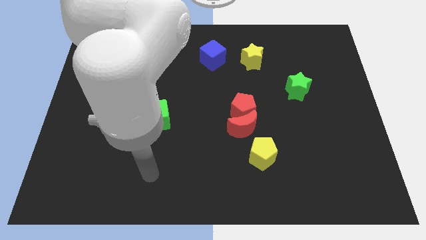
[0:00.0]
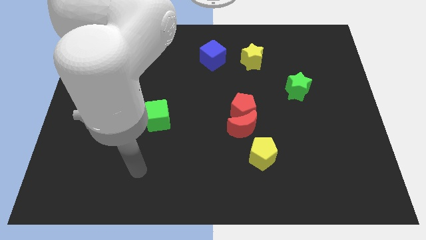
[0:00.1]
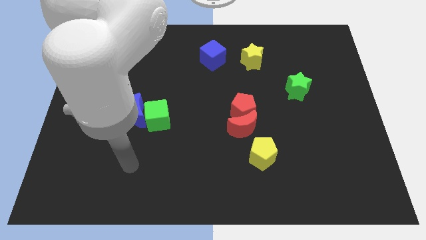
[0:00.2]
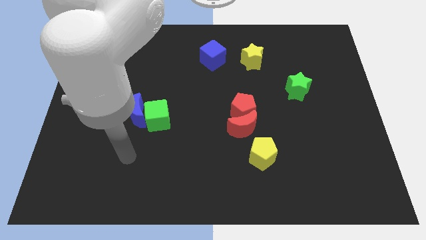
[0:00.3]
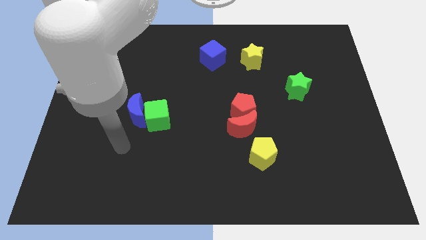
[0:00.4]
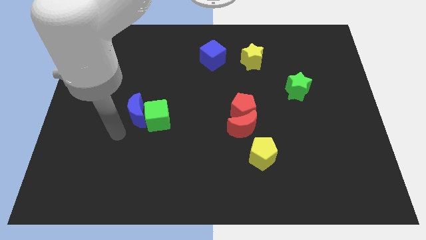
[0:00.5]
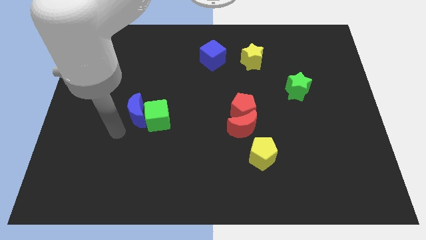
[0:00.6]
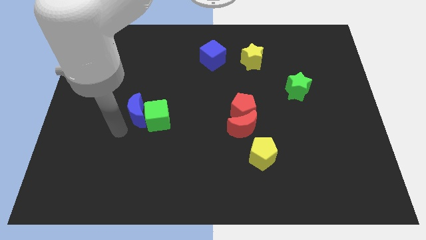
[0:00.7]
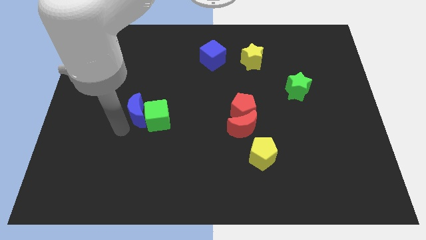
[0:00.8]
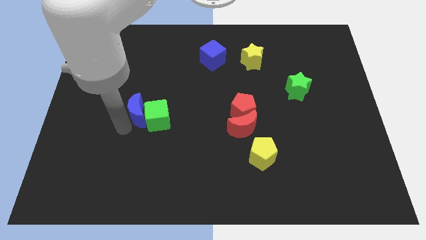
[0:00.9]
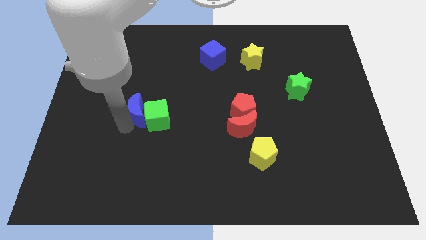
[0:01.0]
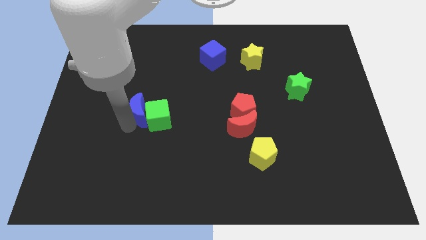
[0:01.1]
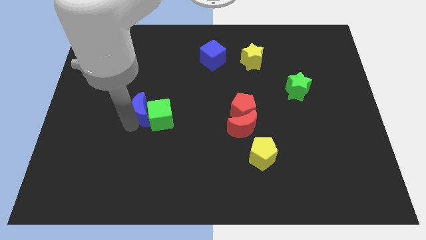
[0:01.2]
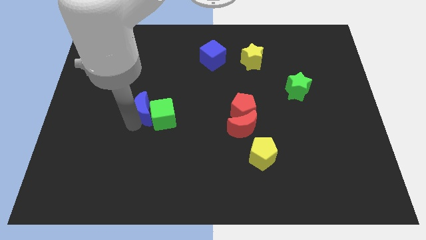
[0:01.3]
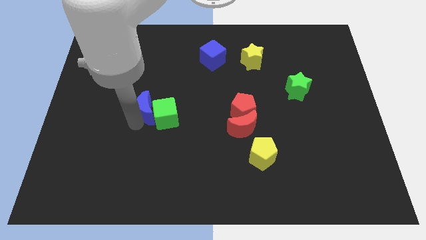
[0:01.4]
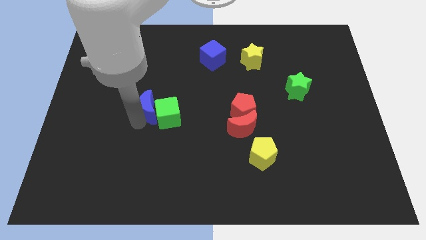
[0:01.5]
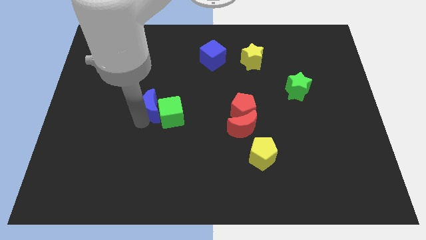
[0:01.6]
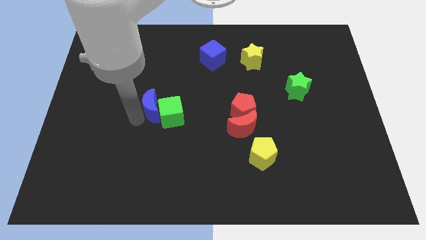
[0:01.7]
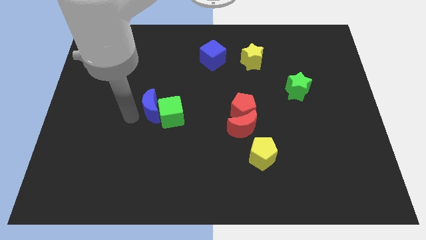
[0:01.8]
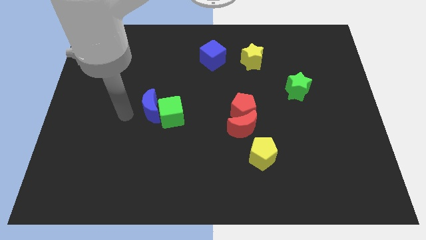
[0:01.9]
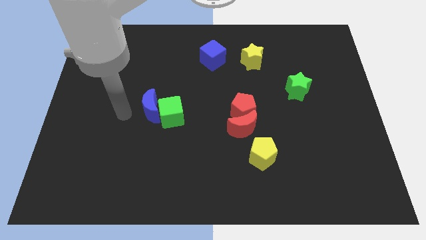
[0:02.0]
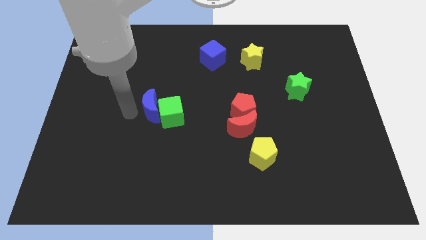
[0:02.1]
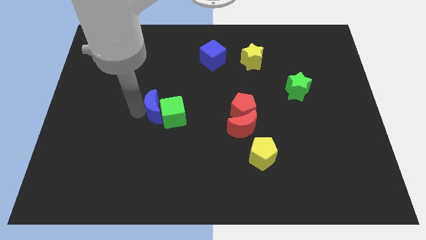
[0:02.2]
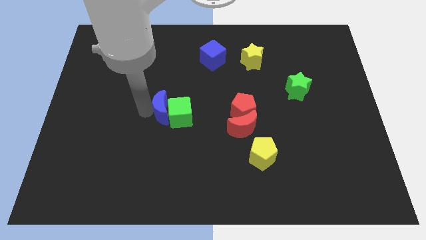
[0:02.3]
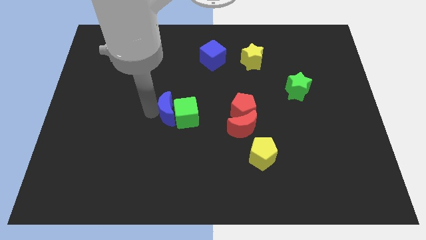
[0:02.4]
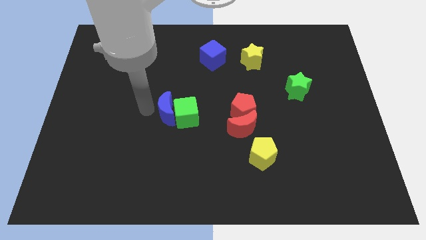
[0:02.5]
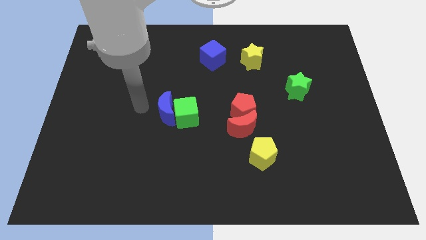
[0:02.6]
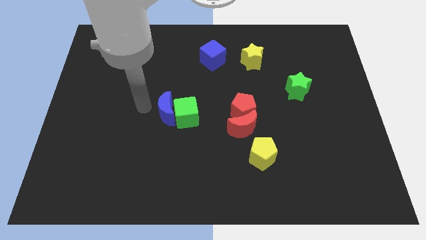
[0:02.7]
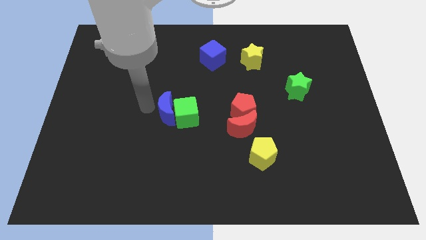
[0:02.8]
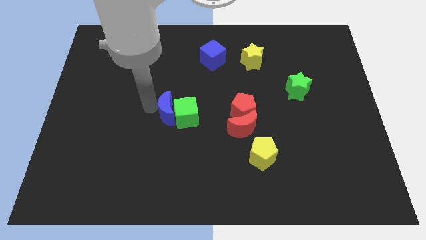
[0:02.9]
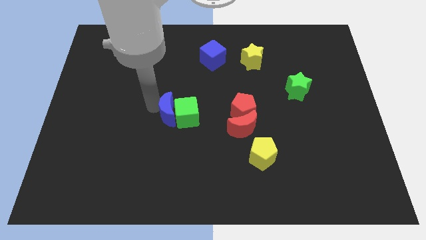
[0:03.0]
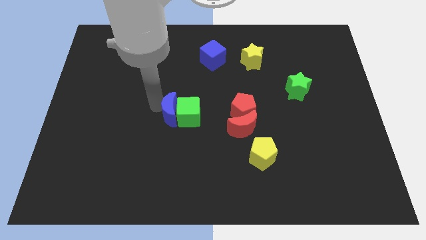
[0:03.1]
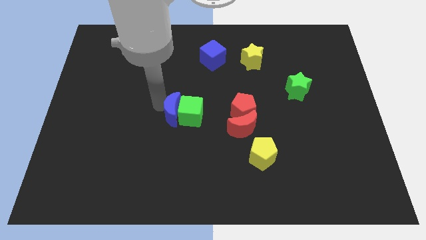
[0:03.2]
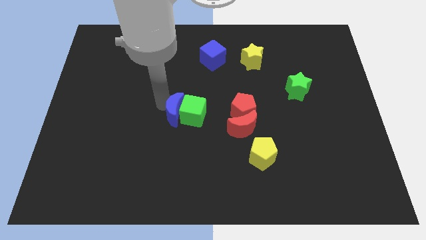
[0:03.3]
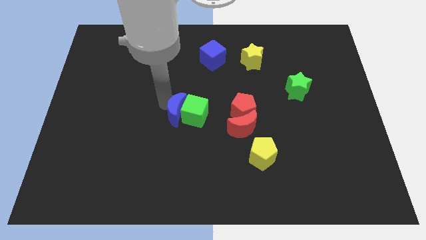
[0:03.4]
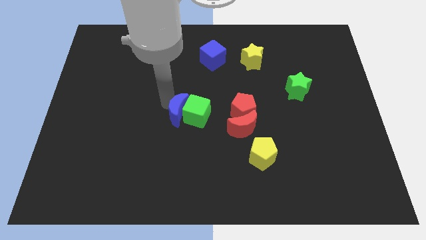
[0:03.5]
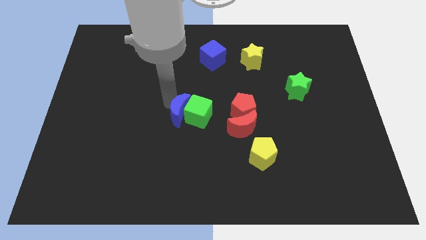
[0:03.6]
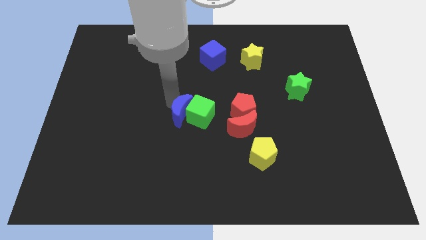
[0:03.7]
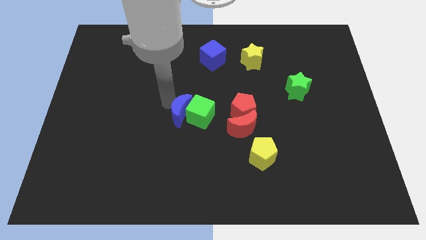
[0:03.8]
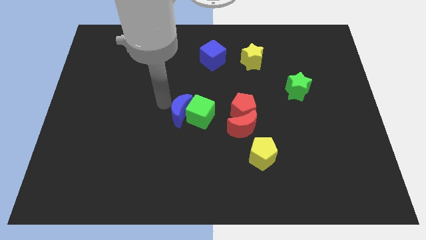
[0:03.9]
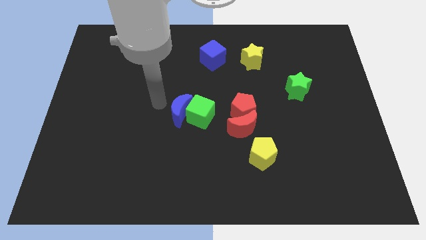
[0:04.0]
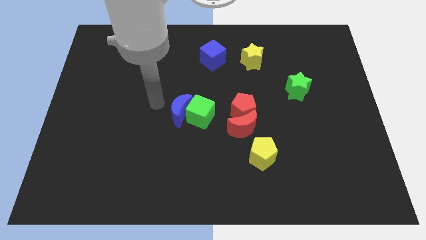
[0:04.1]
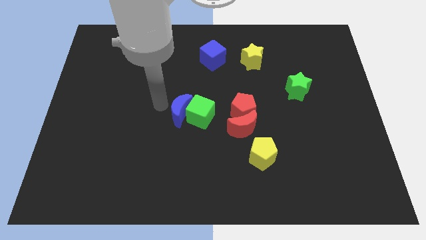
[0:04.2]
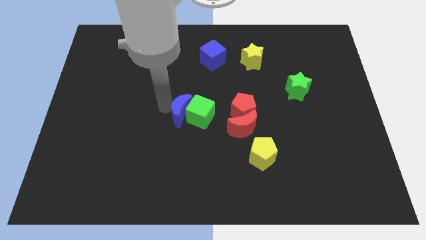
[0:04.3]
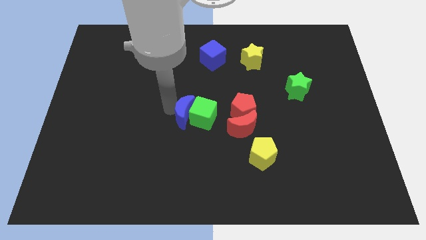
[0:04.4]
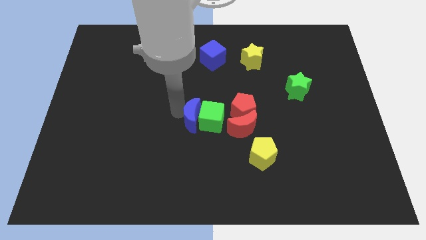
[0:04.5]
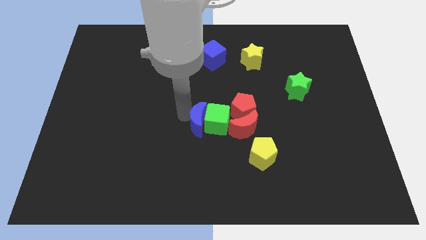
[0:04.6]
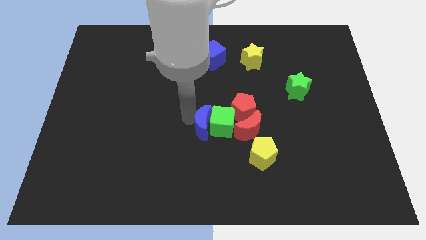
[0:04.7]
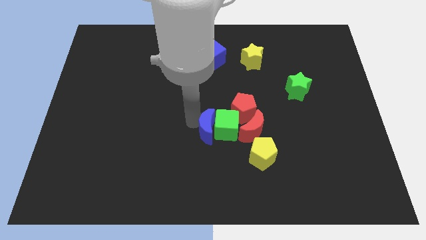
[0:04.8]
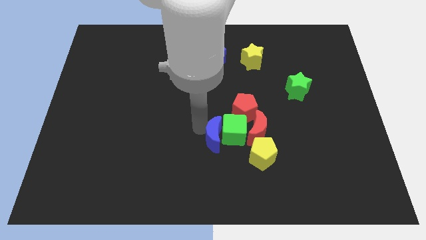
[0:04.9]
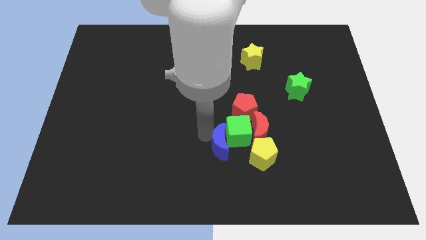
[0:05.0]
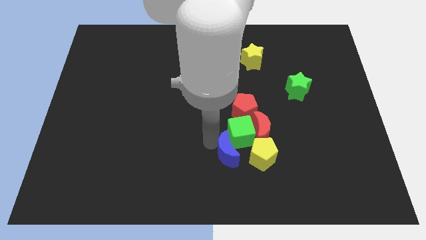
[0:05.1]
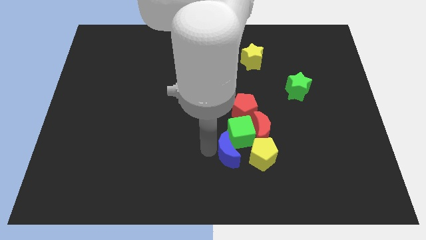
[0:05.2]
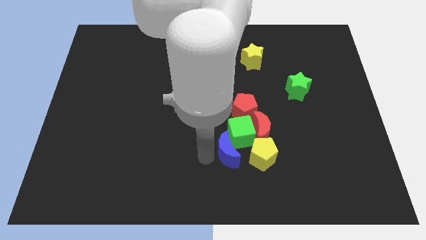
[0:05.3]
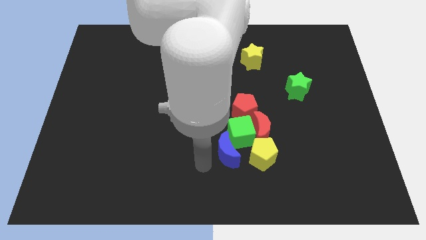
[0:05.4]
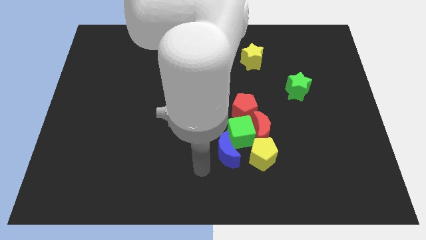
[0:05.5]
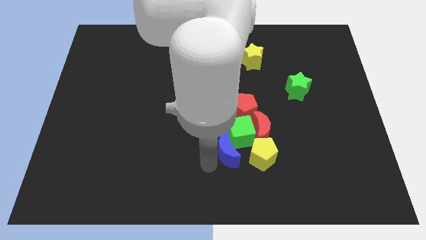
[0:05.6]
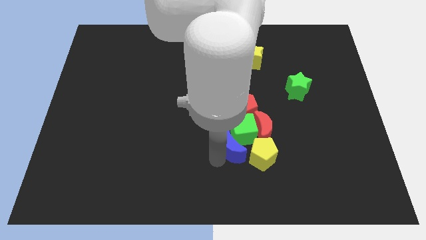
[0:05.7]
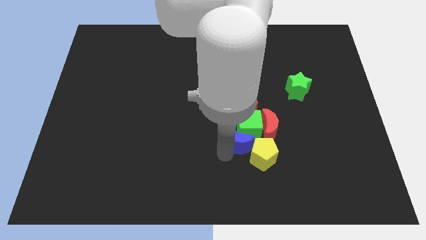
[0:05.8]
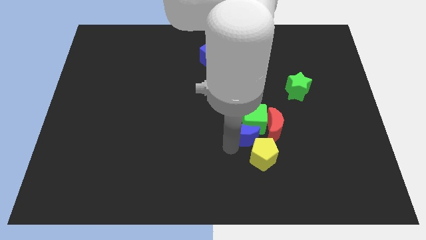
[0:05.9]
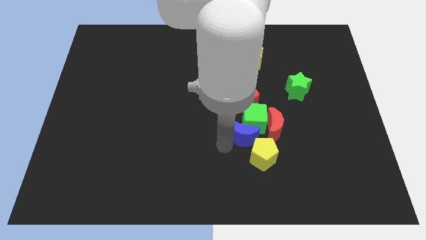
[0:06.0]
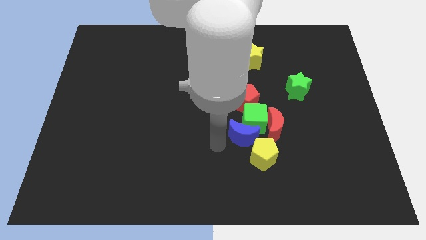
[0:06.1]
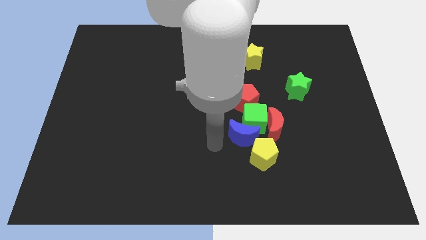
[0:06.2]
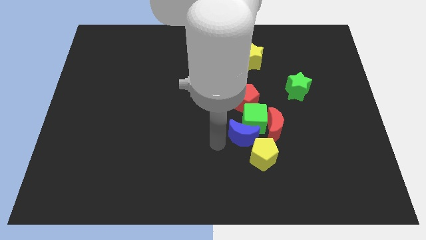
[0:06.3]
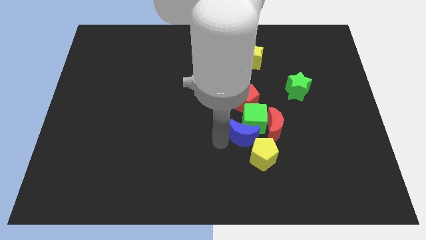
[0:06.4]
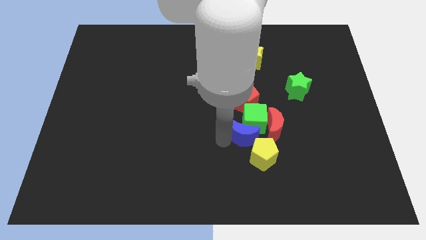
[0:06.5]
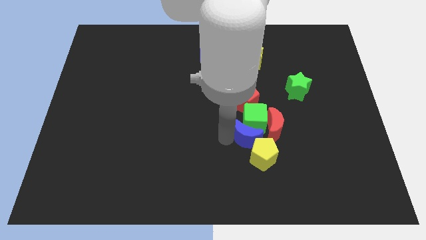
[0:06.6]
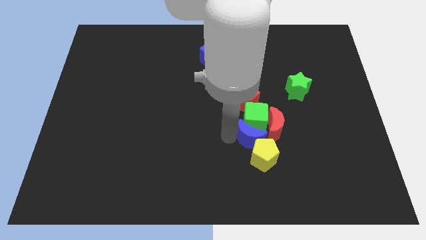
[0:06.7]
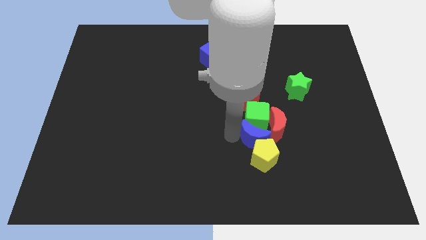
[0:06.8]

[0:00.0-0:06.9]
slide the blue moon next to the red moon
